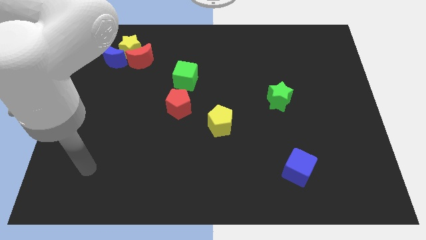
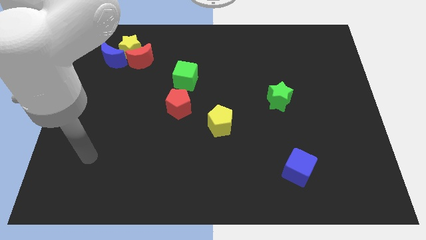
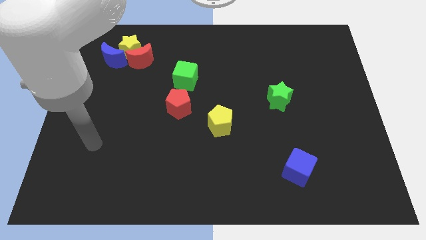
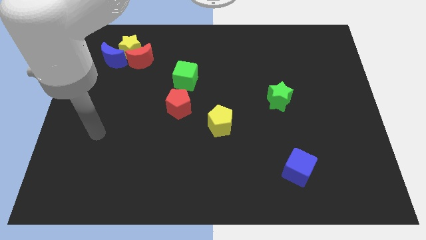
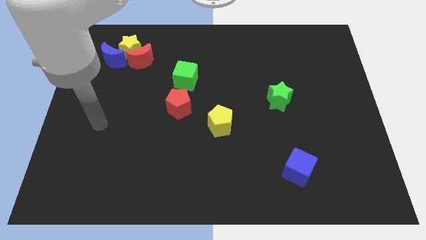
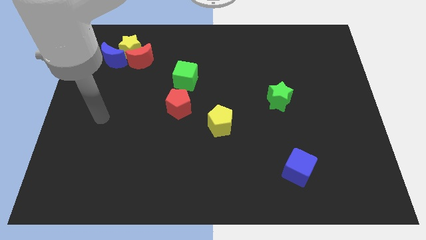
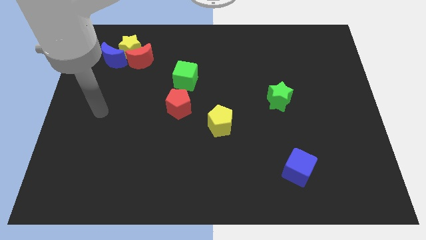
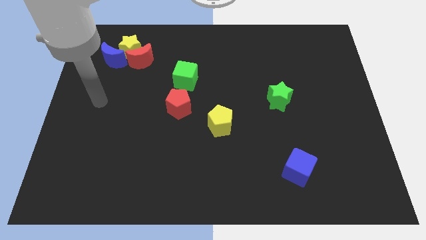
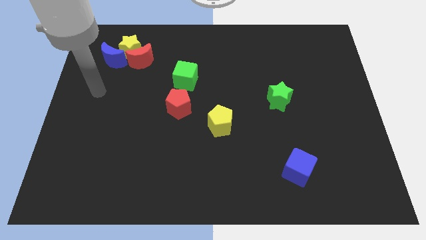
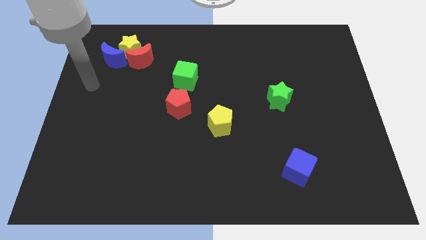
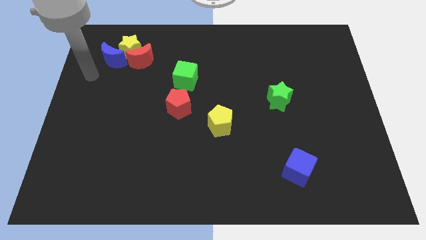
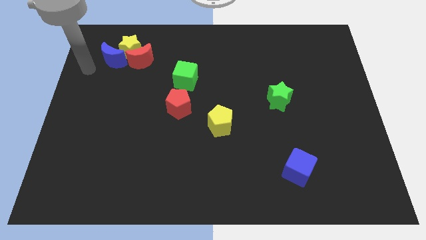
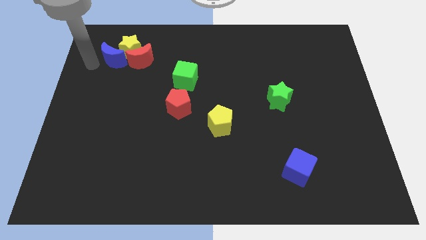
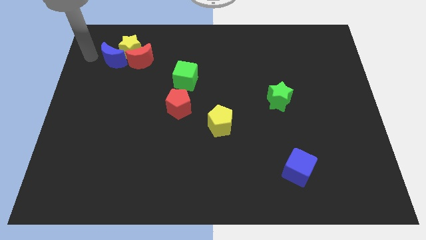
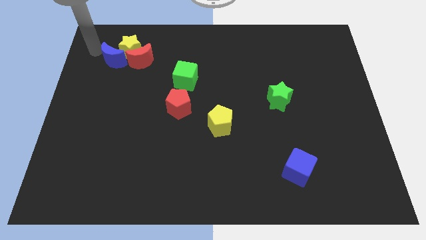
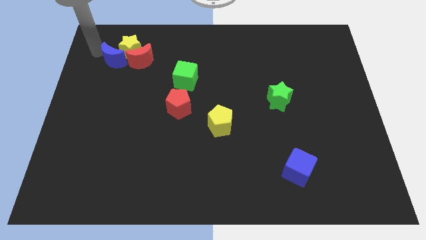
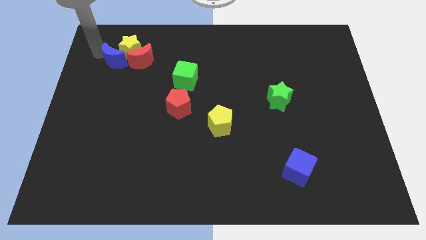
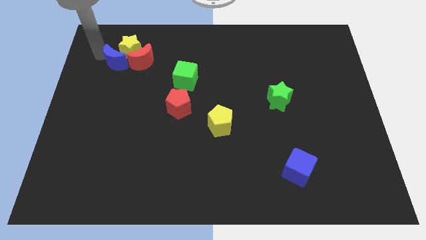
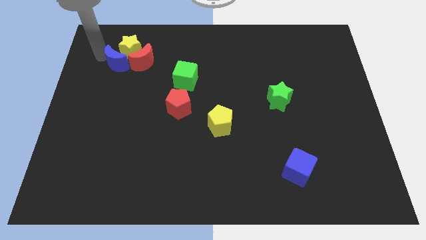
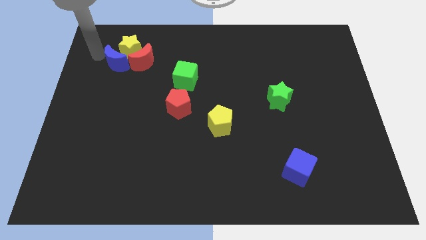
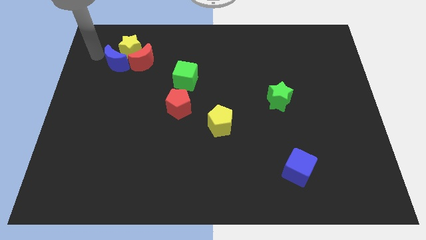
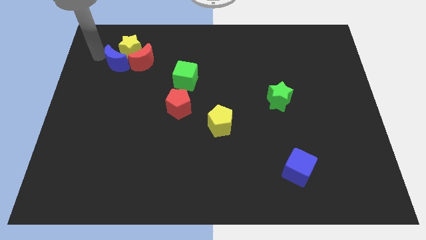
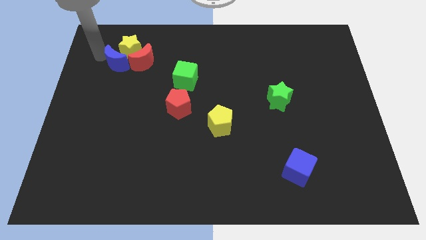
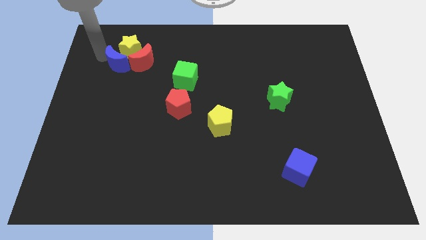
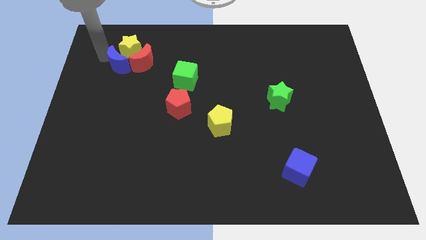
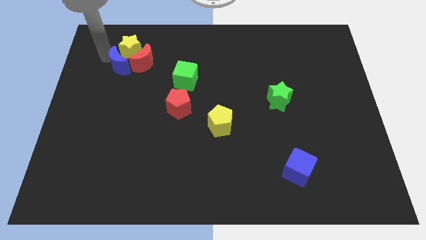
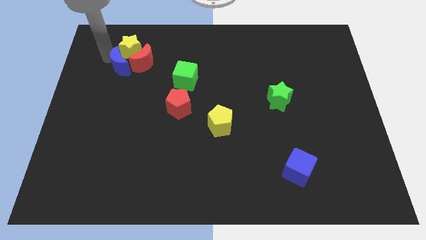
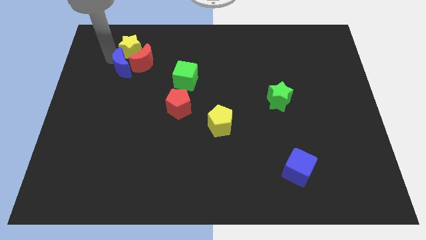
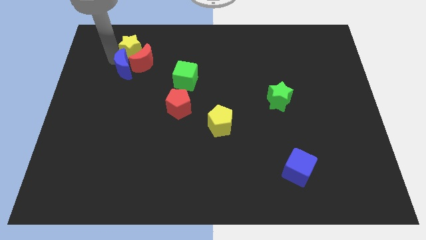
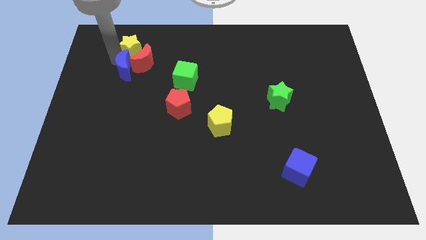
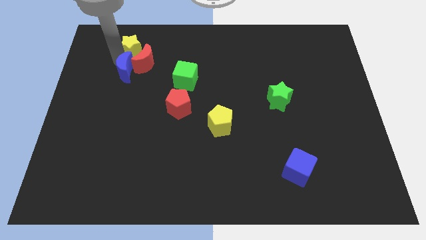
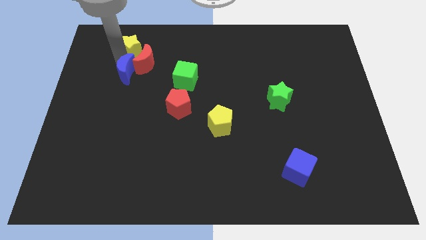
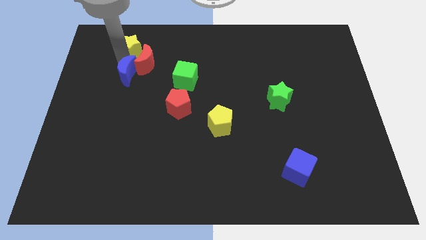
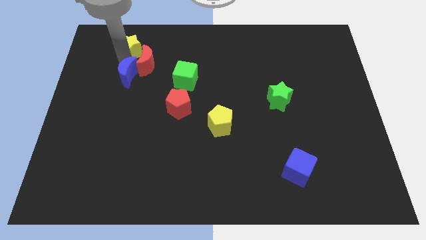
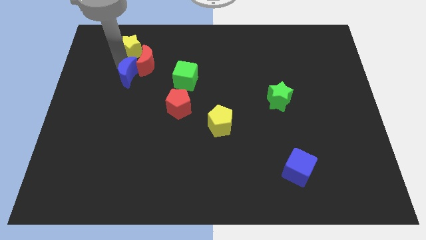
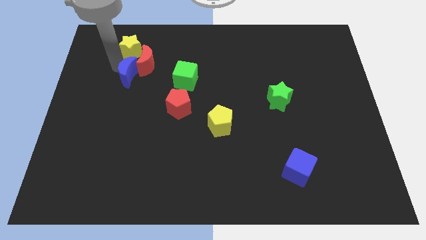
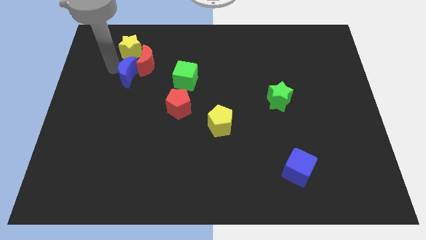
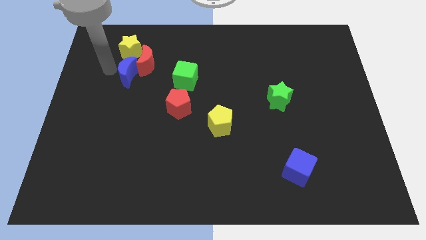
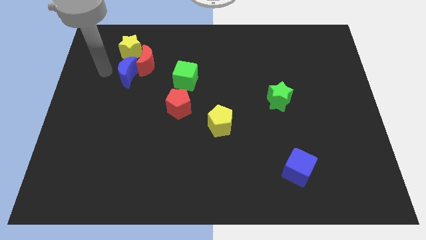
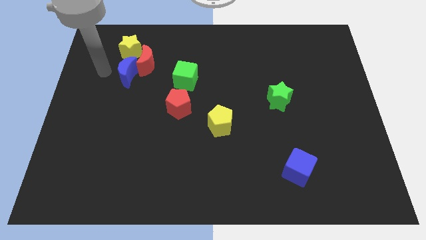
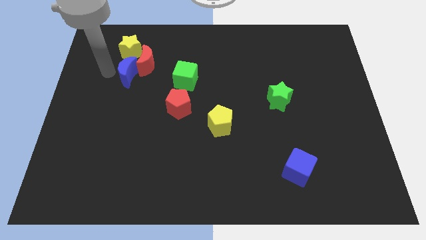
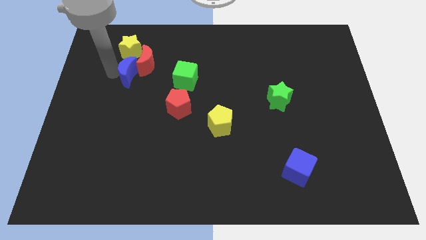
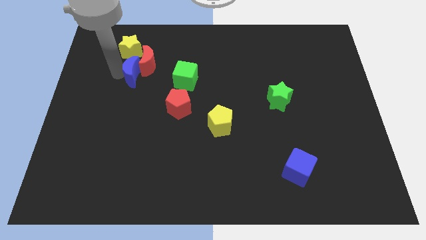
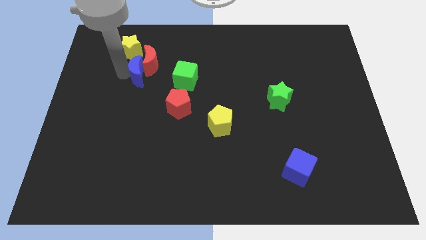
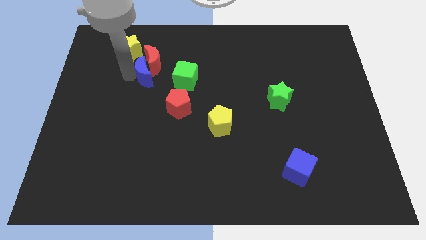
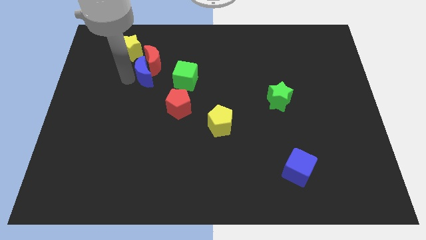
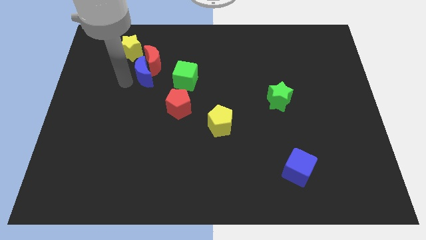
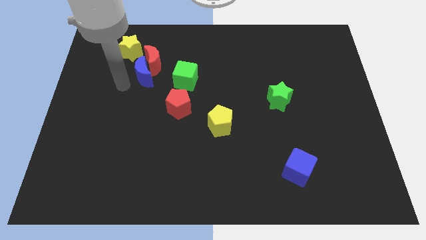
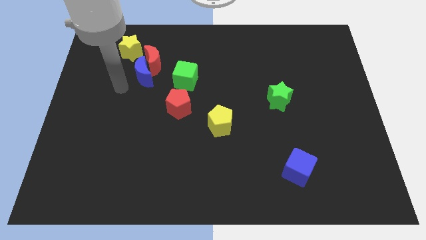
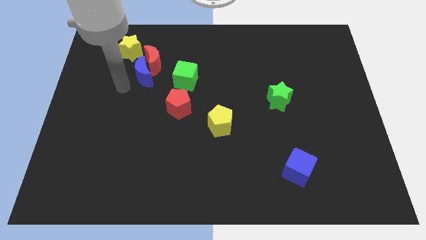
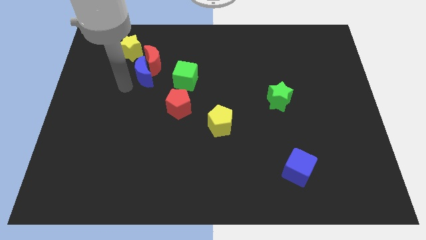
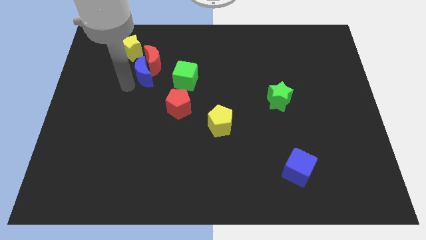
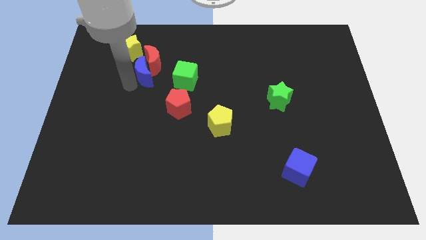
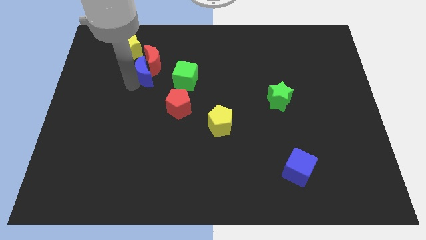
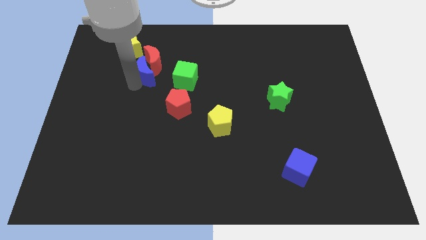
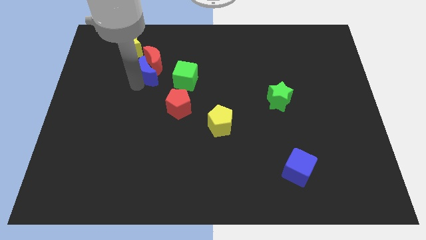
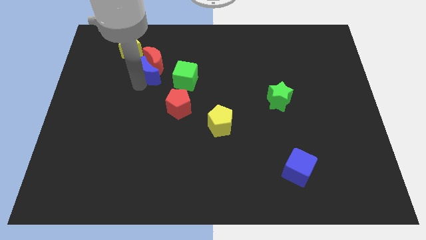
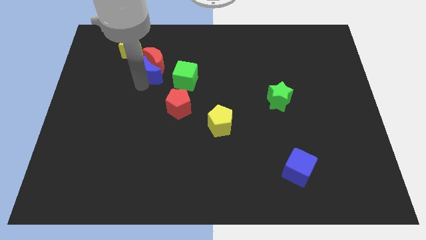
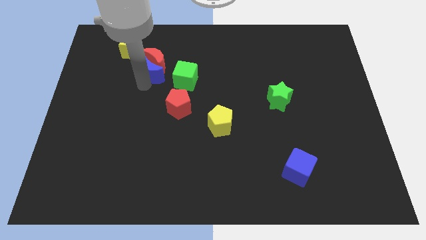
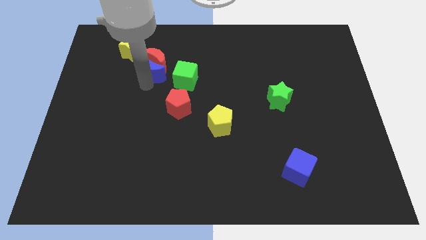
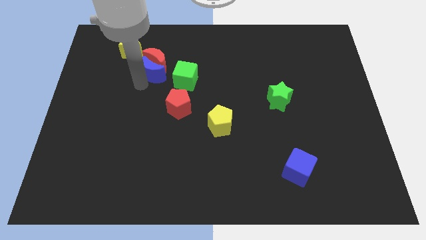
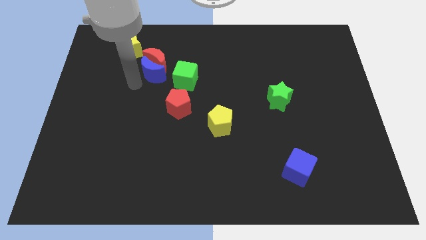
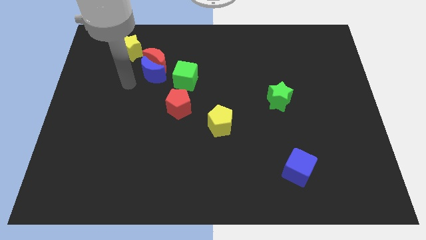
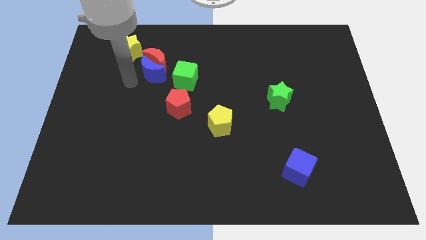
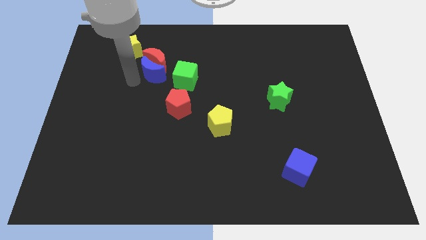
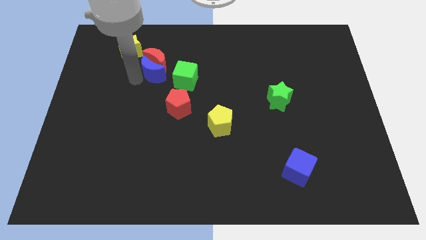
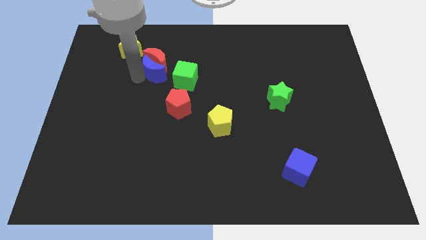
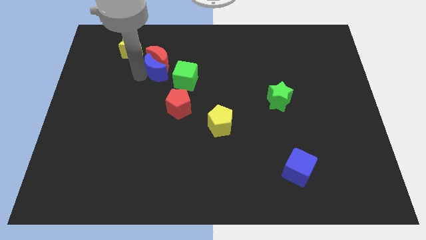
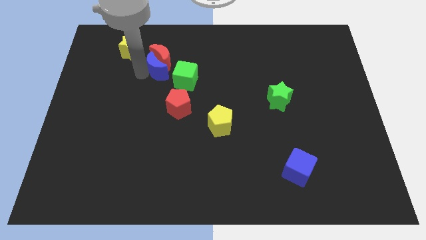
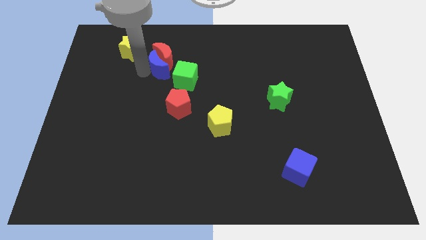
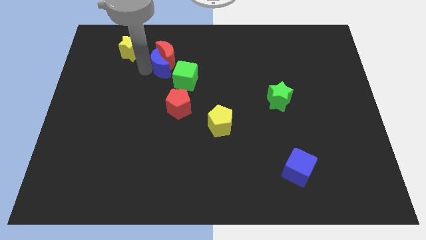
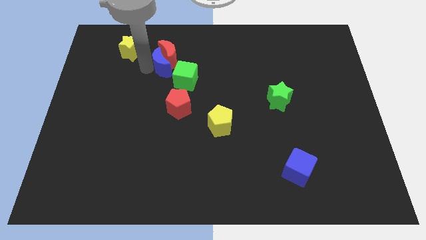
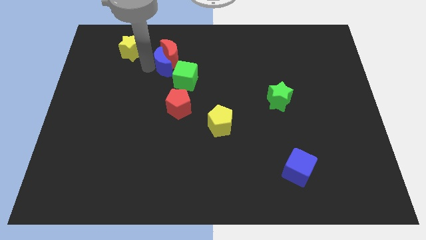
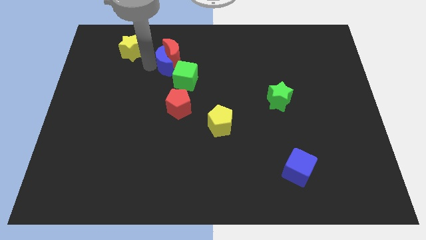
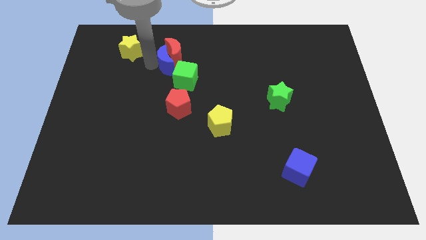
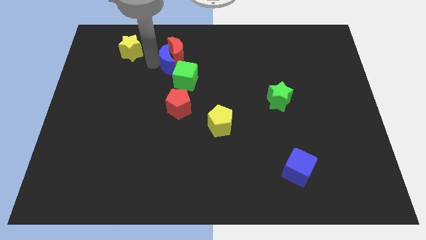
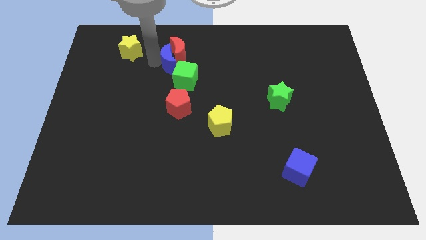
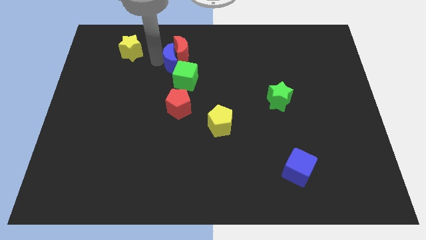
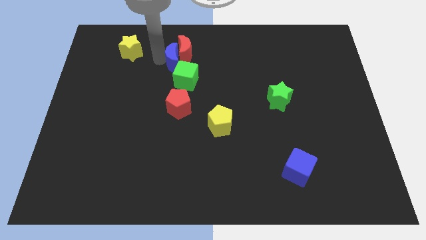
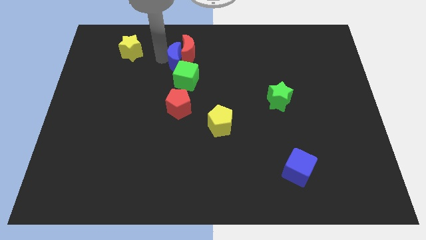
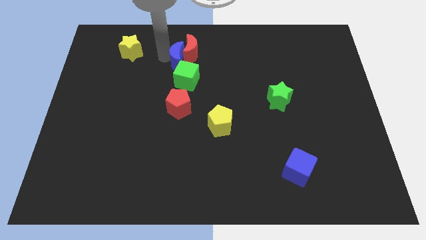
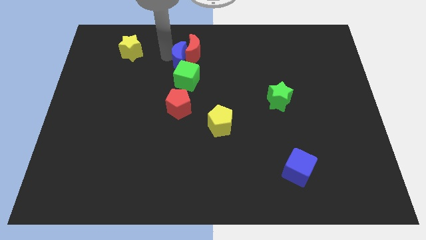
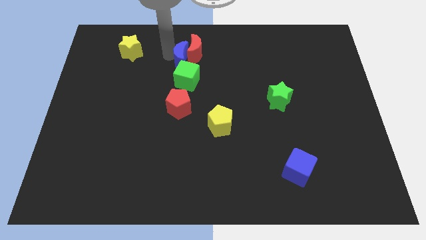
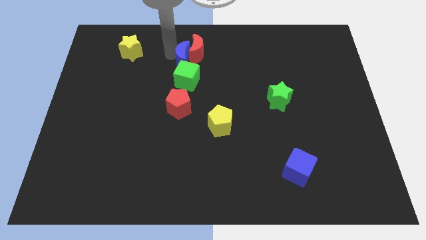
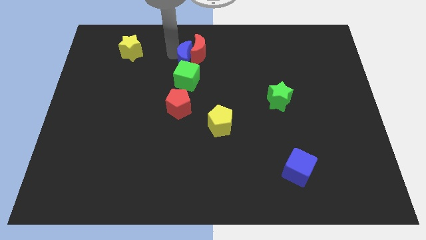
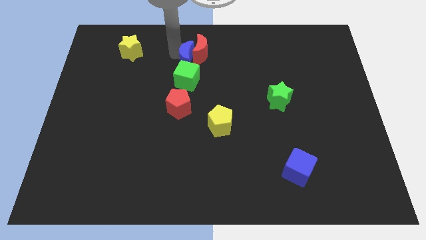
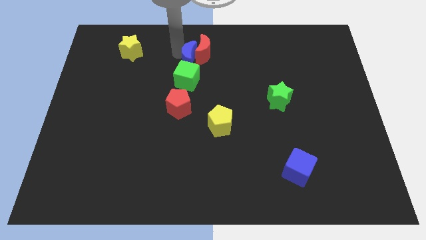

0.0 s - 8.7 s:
slide the blue moon to the right
